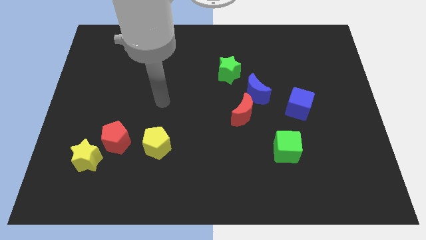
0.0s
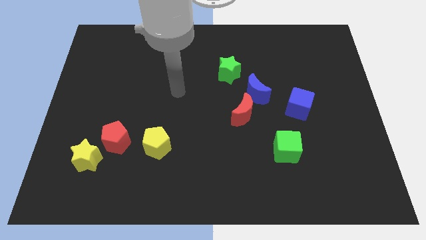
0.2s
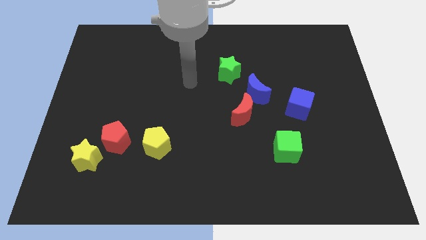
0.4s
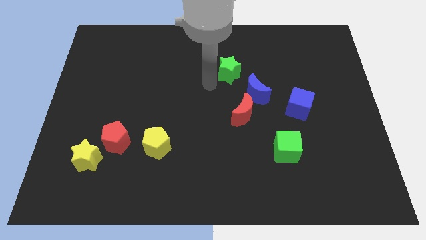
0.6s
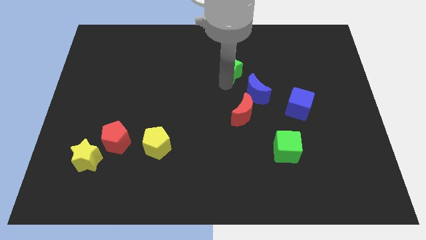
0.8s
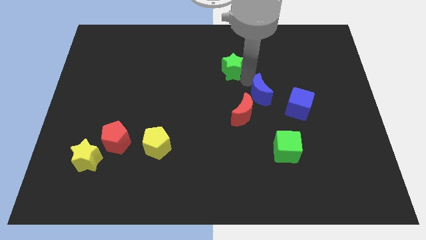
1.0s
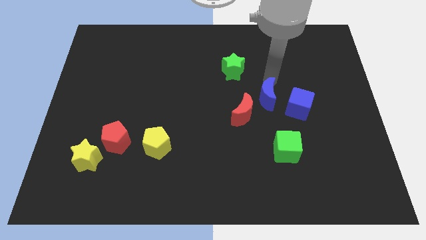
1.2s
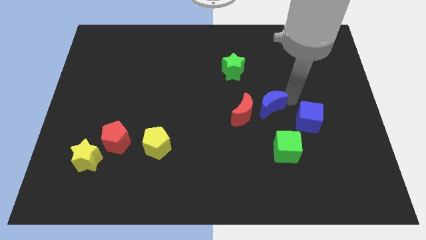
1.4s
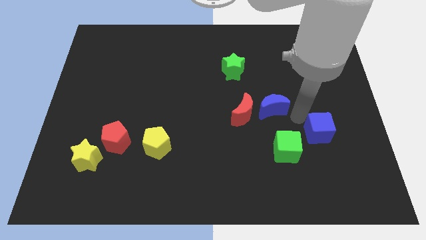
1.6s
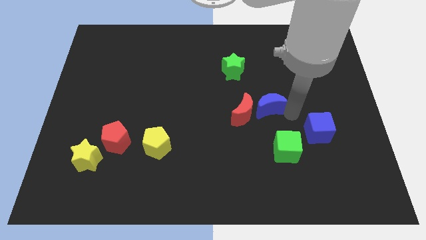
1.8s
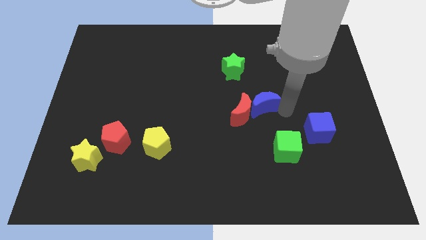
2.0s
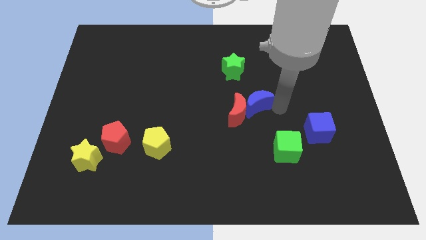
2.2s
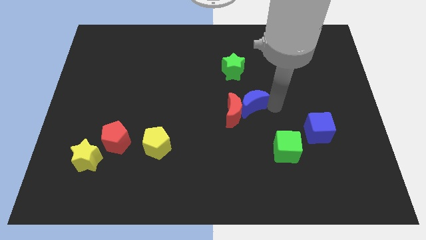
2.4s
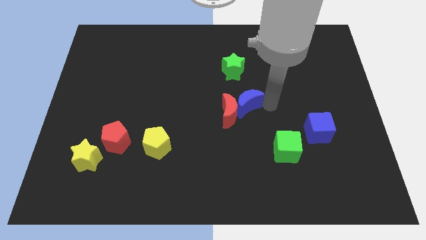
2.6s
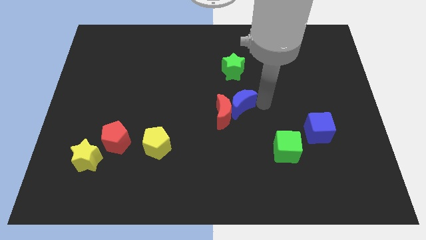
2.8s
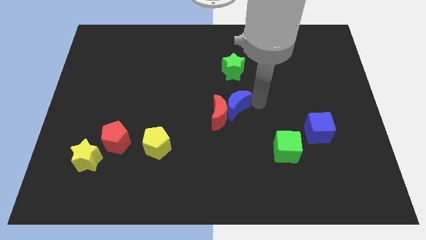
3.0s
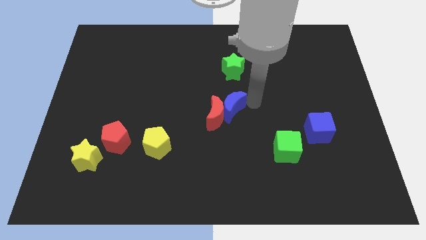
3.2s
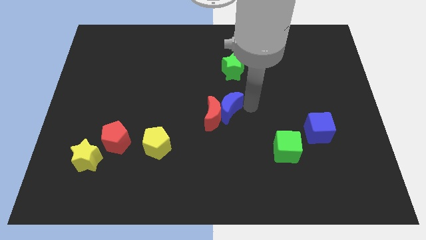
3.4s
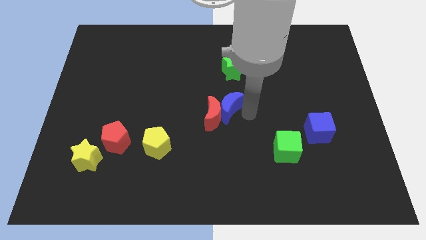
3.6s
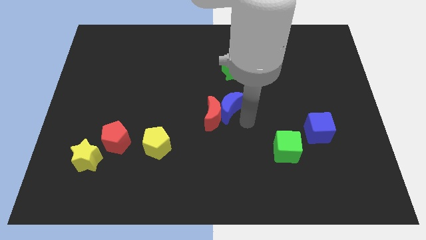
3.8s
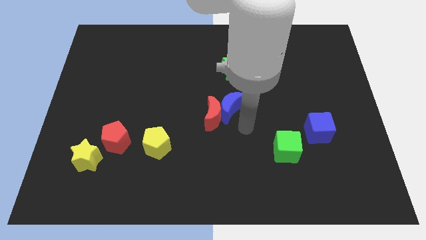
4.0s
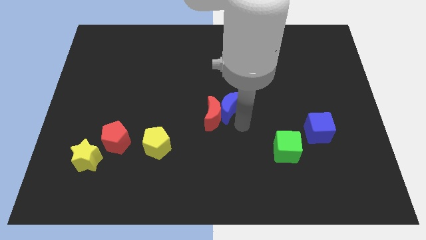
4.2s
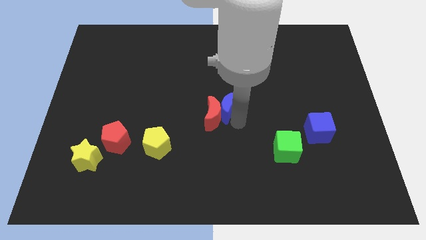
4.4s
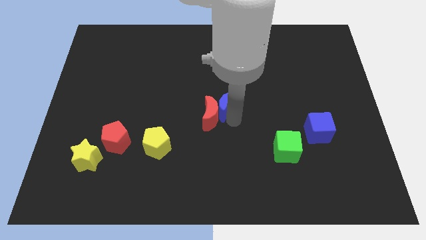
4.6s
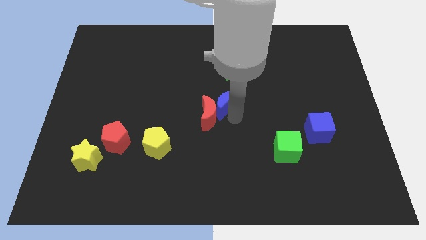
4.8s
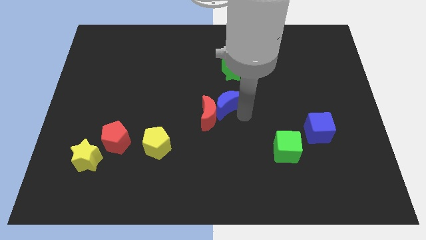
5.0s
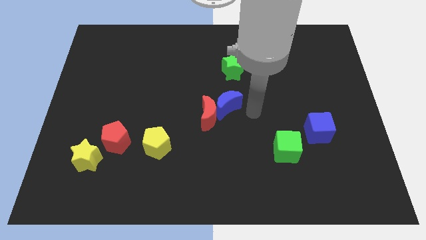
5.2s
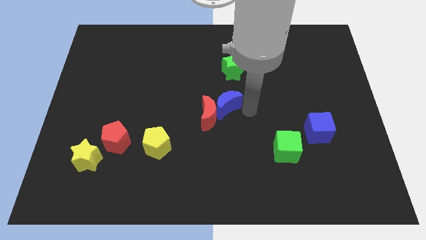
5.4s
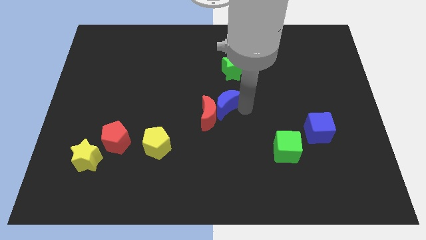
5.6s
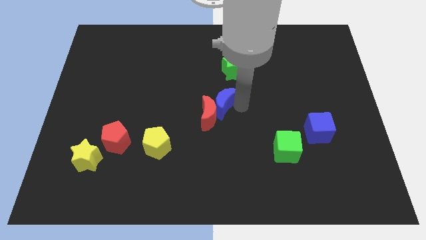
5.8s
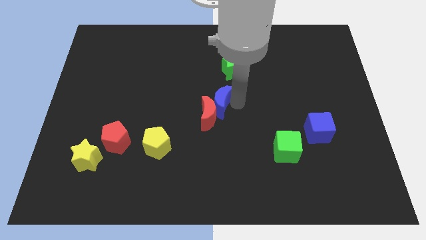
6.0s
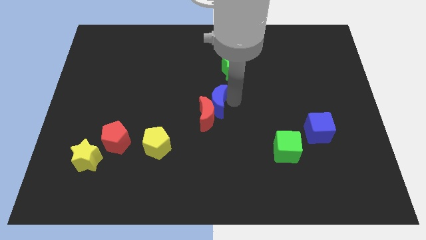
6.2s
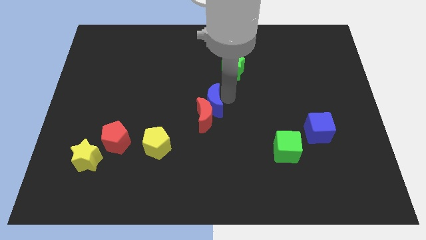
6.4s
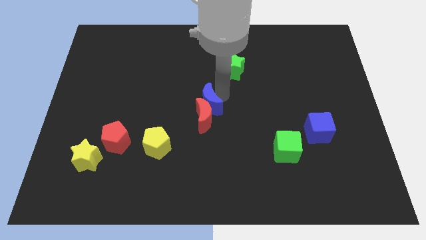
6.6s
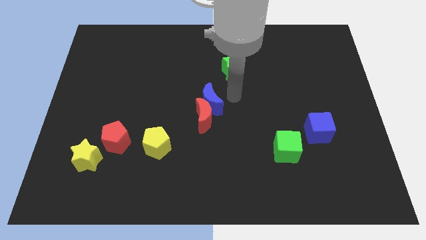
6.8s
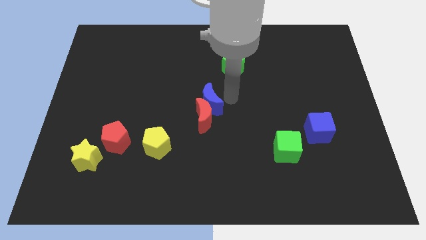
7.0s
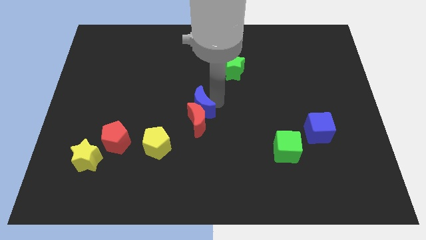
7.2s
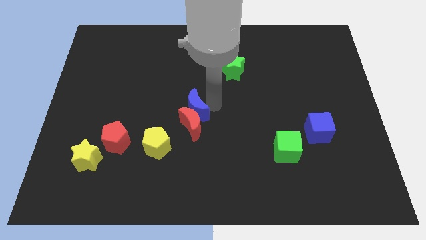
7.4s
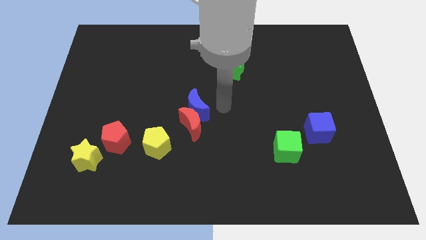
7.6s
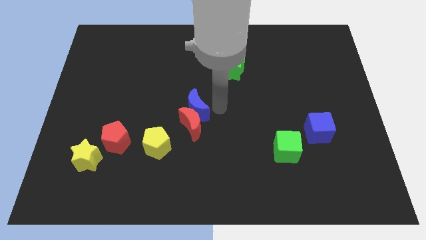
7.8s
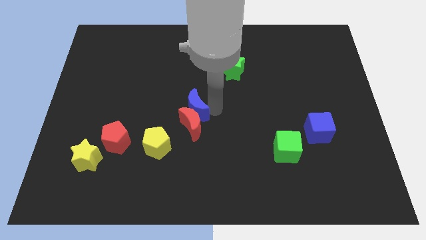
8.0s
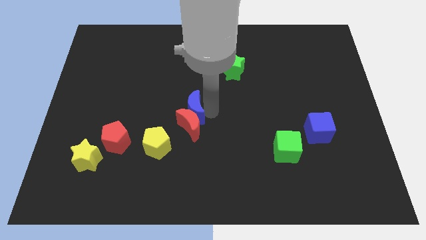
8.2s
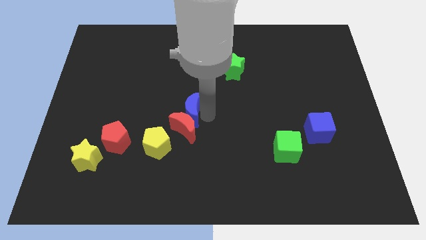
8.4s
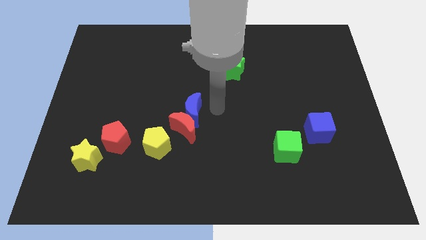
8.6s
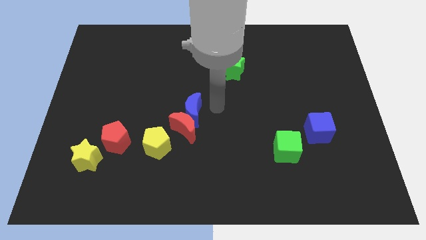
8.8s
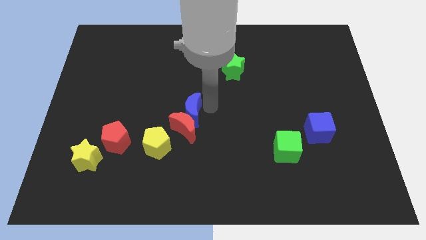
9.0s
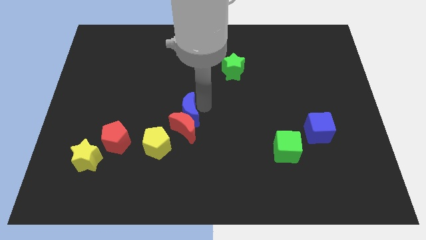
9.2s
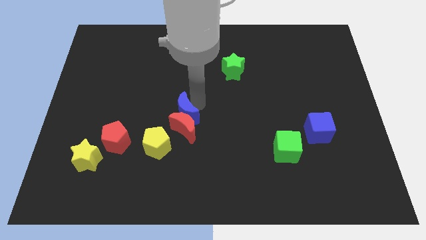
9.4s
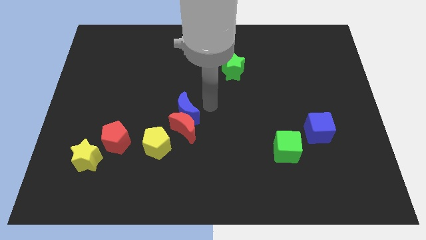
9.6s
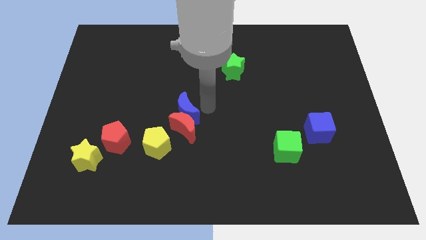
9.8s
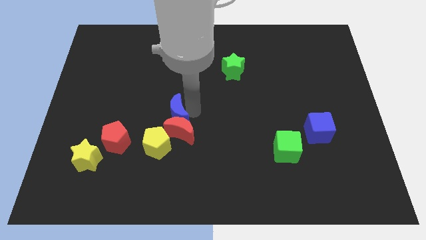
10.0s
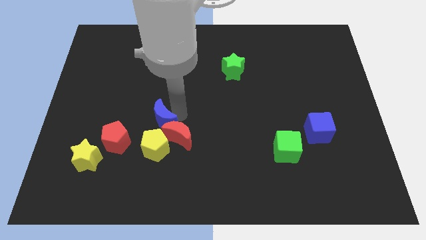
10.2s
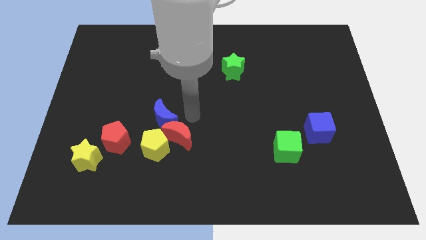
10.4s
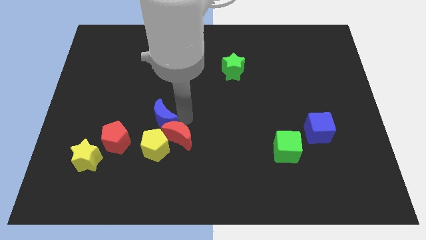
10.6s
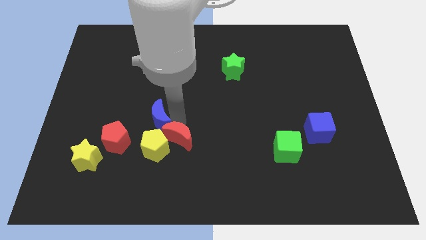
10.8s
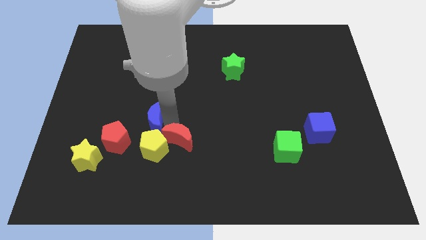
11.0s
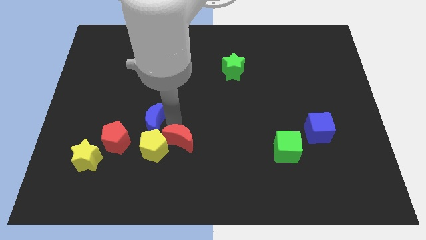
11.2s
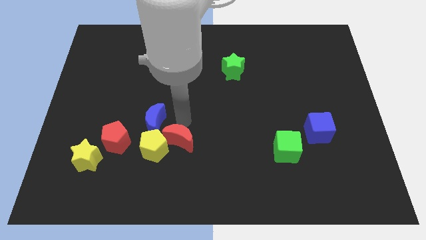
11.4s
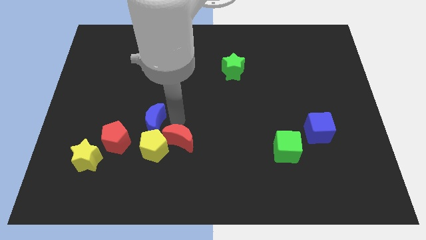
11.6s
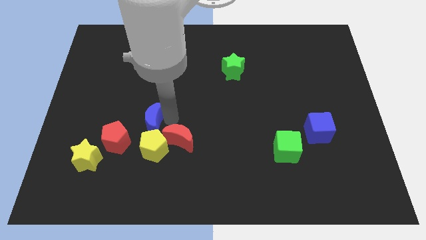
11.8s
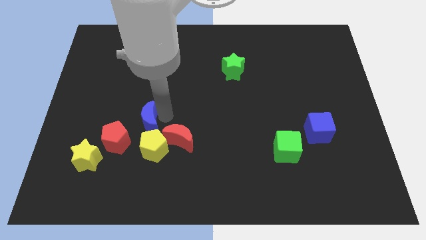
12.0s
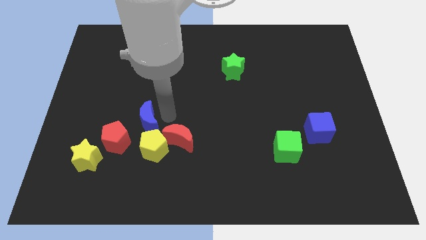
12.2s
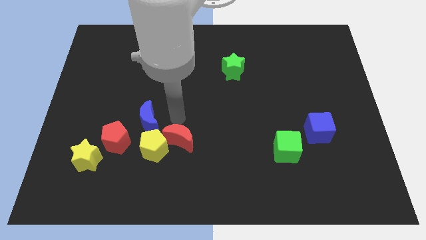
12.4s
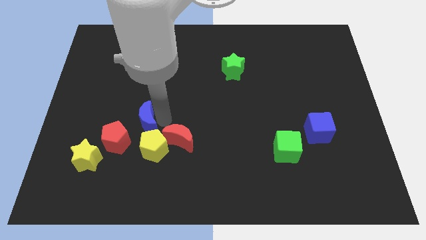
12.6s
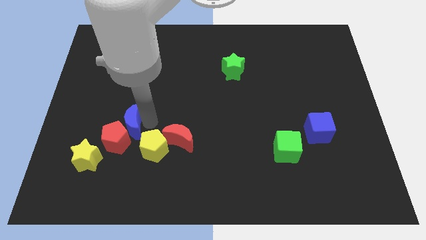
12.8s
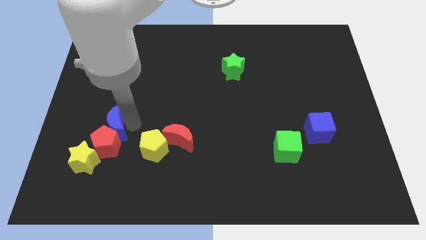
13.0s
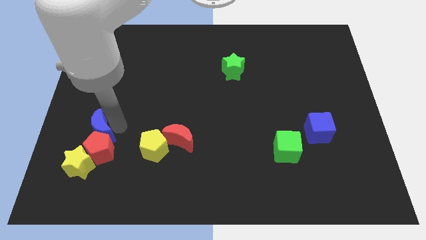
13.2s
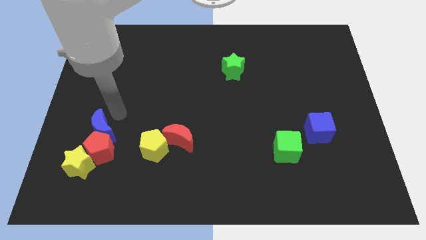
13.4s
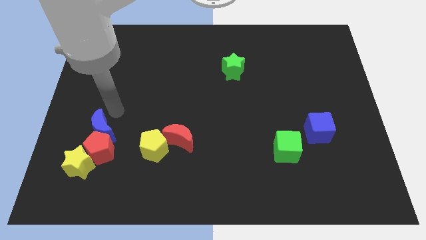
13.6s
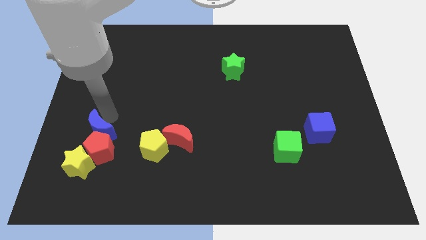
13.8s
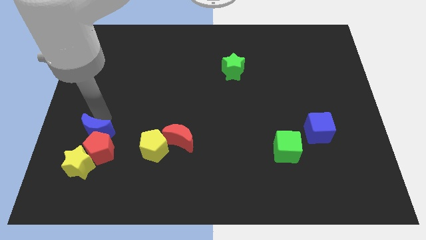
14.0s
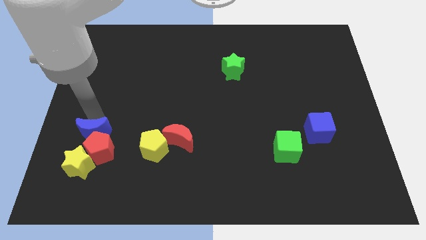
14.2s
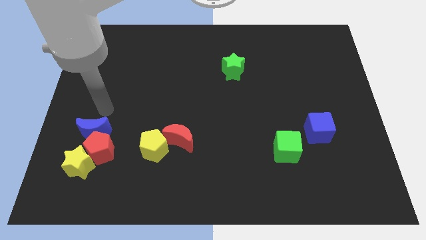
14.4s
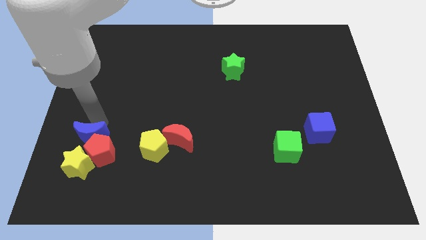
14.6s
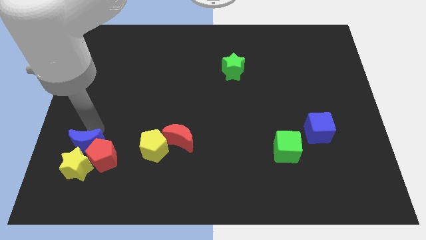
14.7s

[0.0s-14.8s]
push the blue moon next to the yellow star

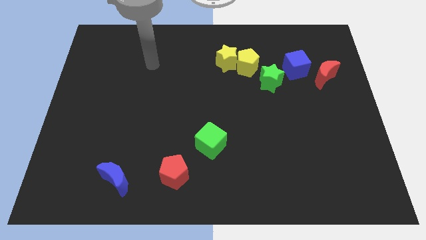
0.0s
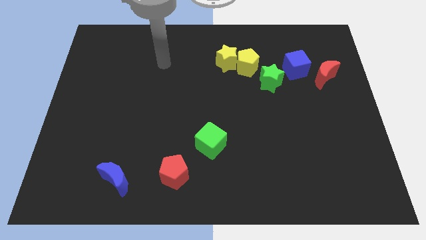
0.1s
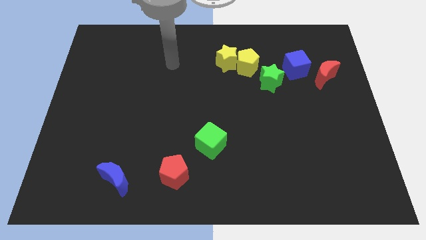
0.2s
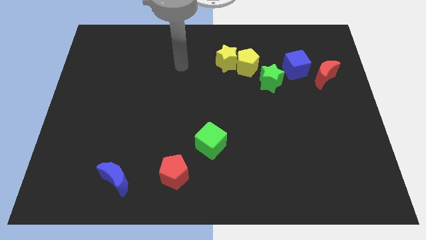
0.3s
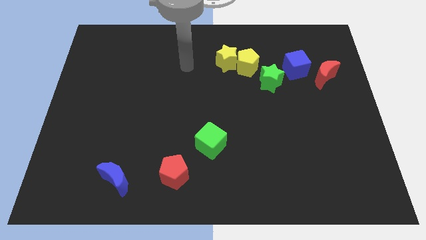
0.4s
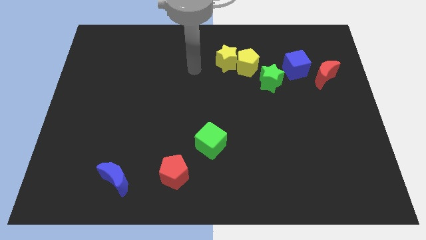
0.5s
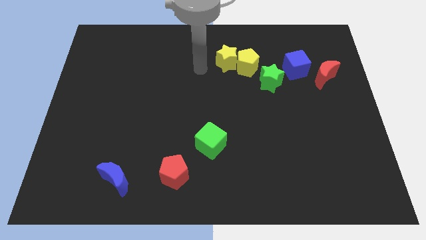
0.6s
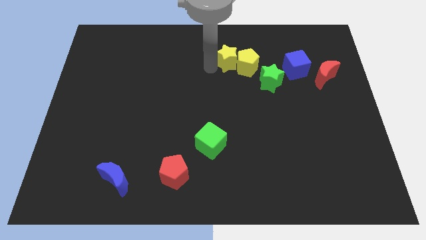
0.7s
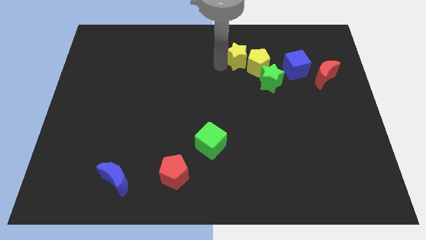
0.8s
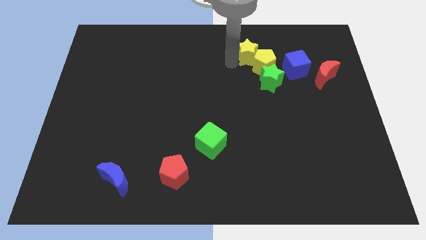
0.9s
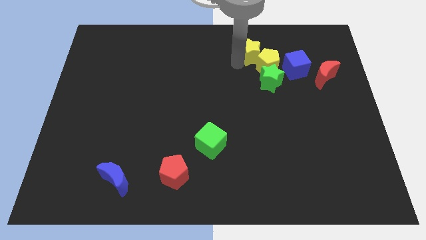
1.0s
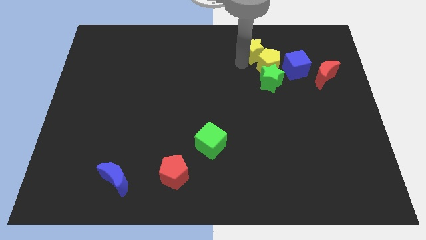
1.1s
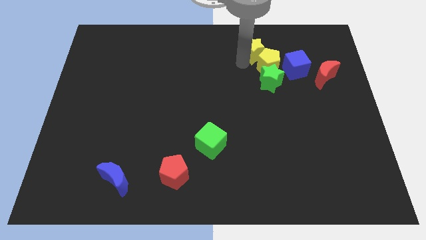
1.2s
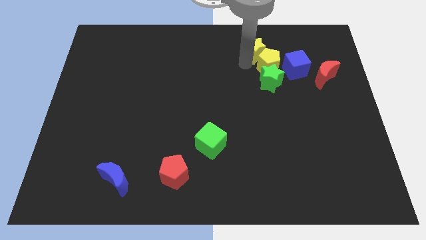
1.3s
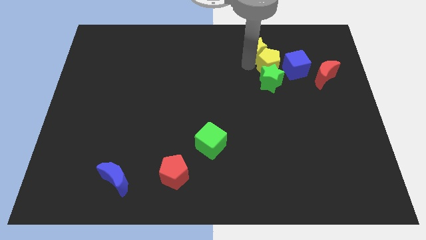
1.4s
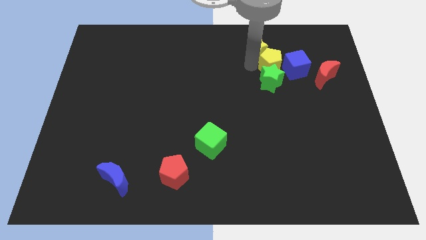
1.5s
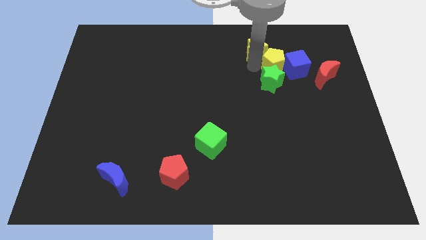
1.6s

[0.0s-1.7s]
put the yellow pentagon towards the blue cube
